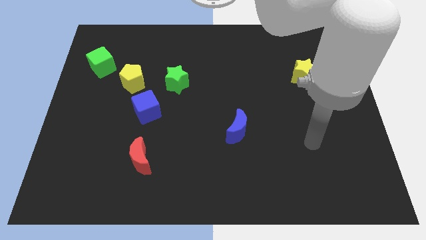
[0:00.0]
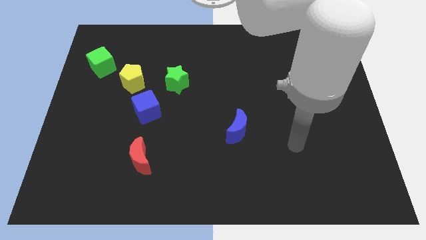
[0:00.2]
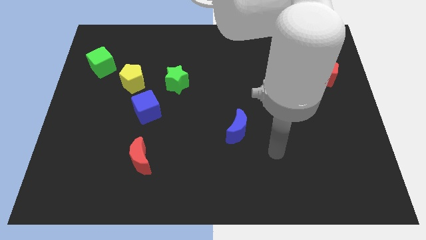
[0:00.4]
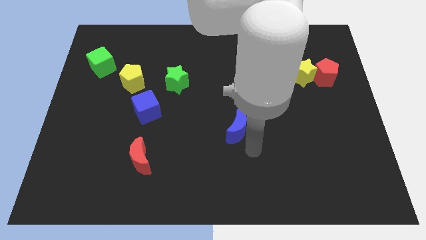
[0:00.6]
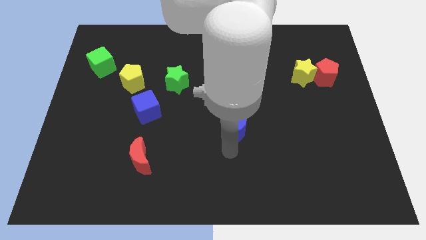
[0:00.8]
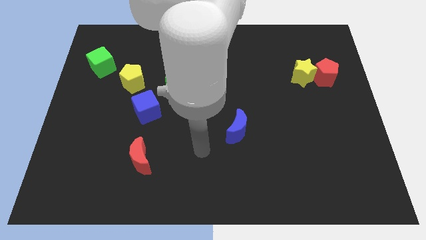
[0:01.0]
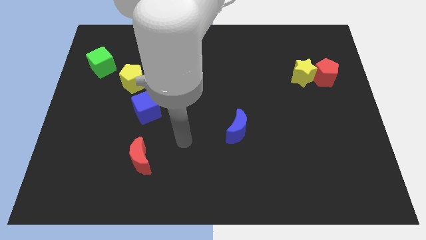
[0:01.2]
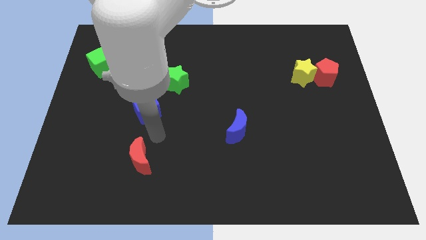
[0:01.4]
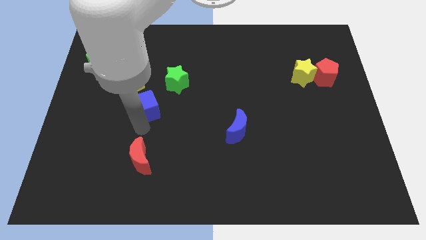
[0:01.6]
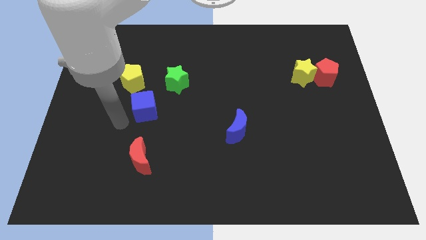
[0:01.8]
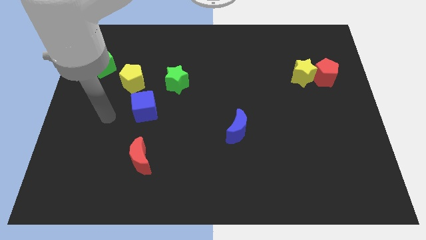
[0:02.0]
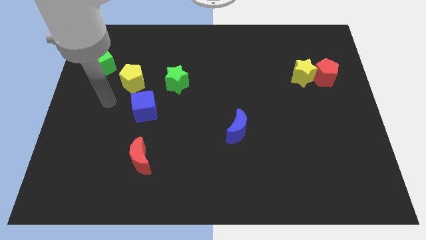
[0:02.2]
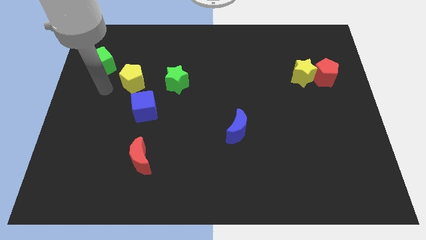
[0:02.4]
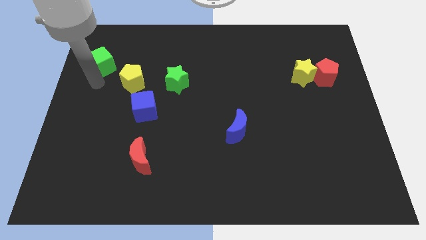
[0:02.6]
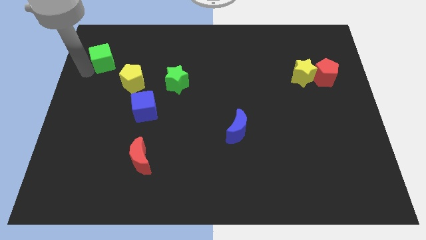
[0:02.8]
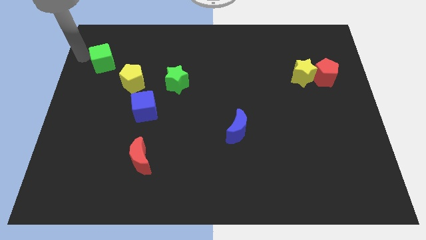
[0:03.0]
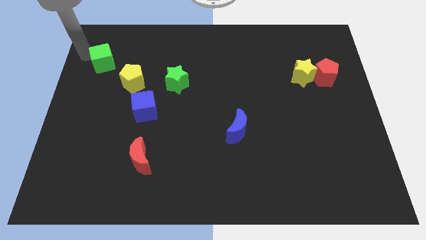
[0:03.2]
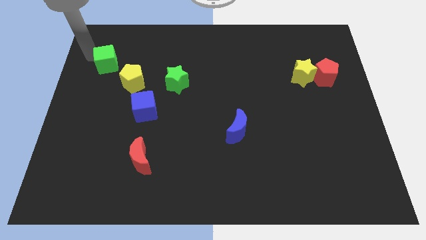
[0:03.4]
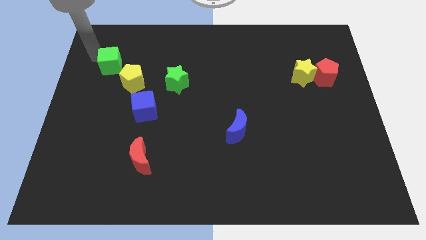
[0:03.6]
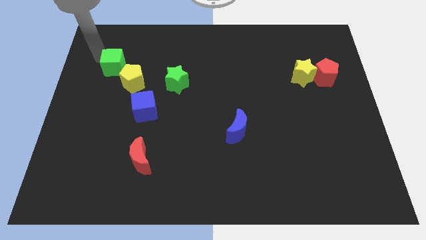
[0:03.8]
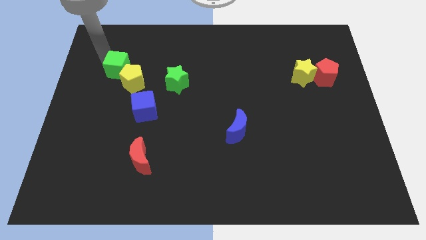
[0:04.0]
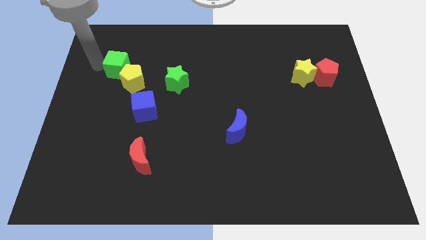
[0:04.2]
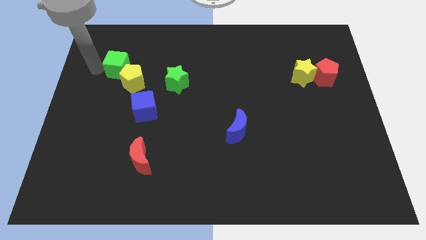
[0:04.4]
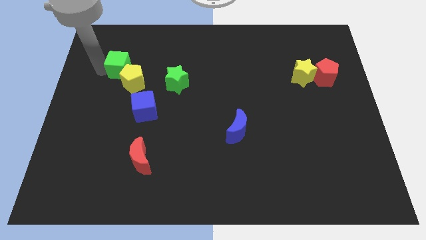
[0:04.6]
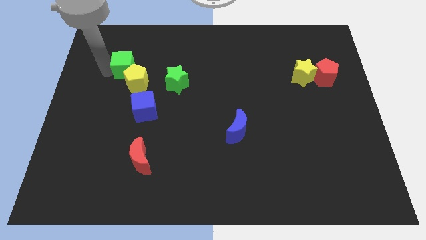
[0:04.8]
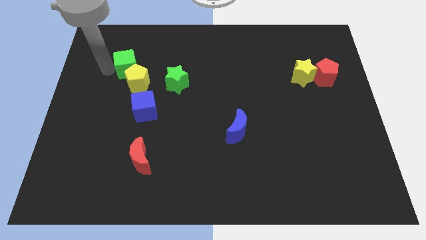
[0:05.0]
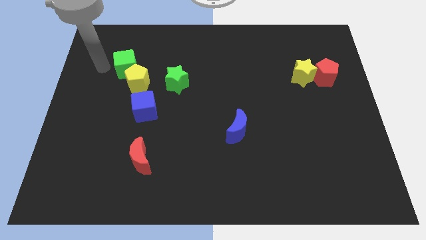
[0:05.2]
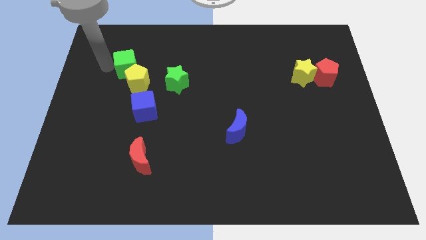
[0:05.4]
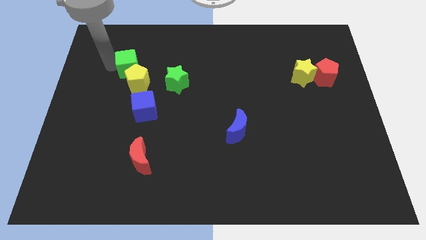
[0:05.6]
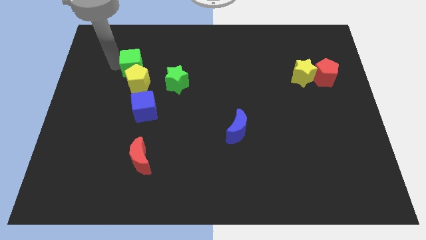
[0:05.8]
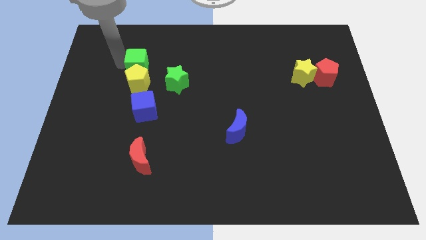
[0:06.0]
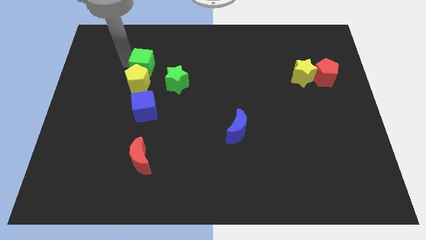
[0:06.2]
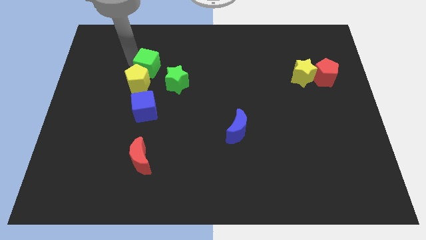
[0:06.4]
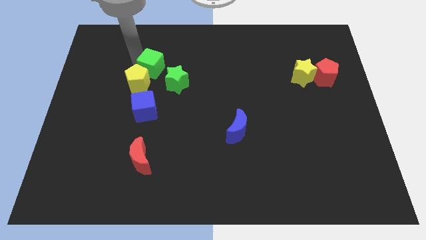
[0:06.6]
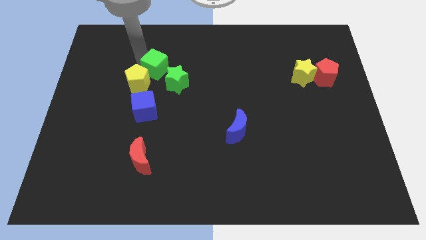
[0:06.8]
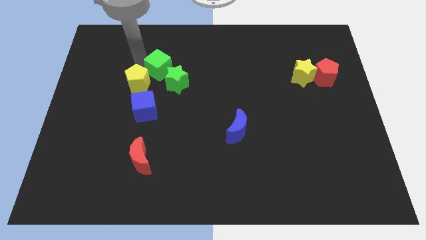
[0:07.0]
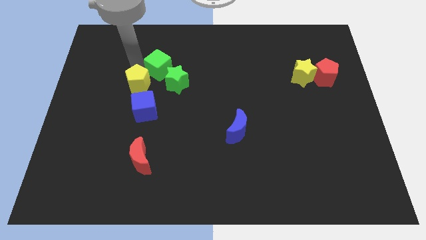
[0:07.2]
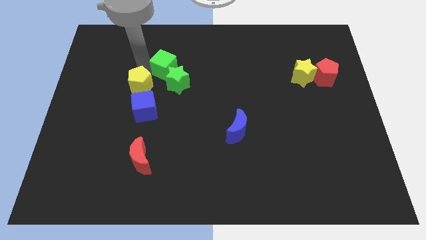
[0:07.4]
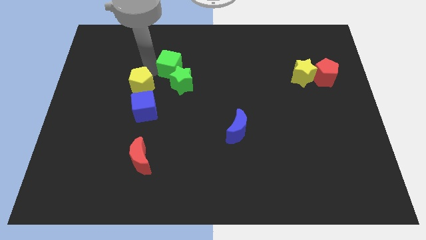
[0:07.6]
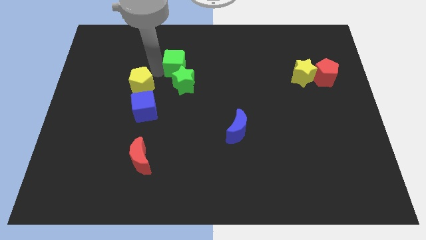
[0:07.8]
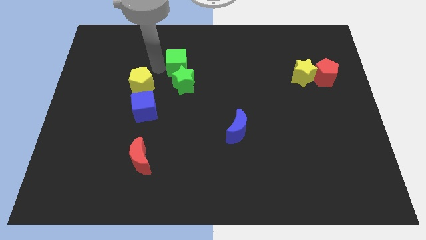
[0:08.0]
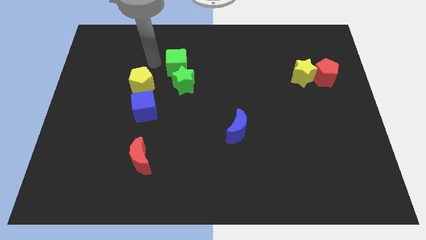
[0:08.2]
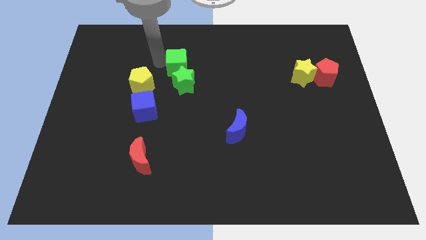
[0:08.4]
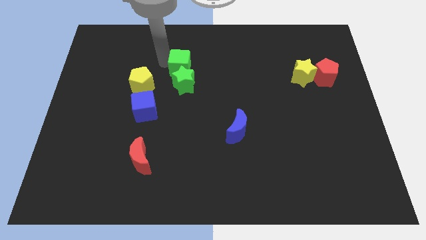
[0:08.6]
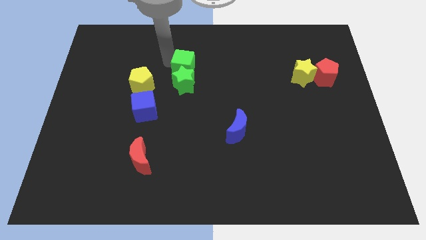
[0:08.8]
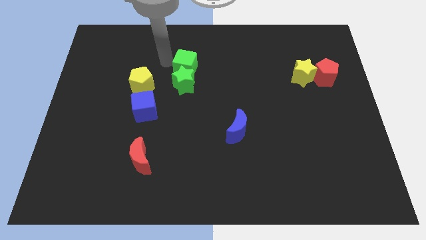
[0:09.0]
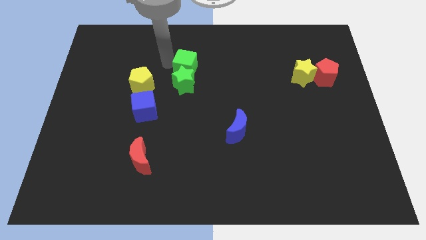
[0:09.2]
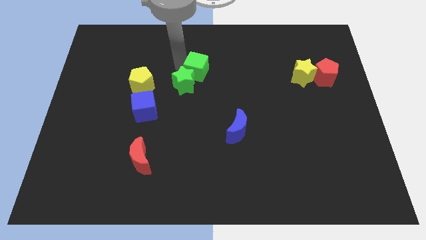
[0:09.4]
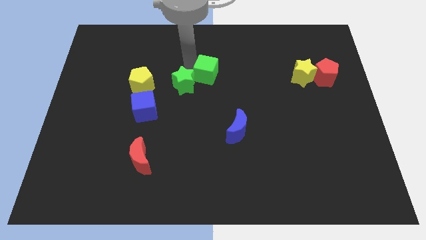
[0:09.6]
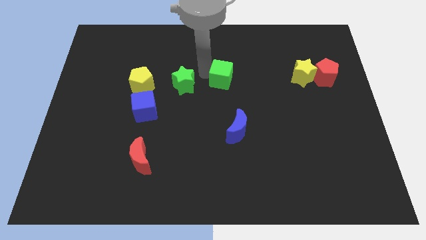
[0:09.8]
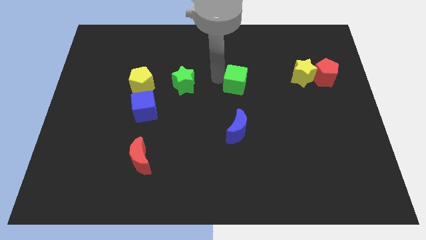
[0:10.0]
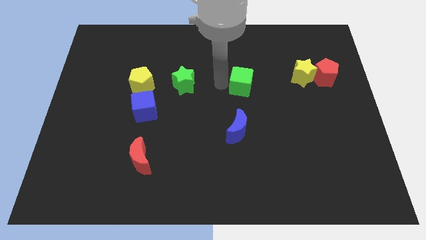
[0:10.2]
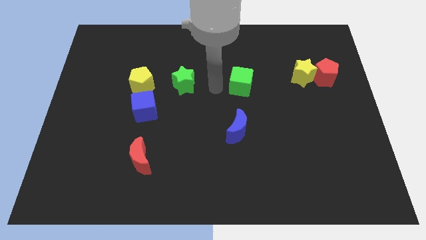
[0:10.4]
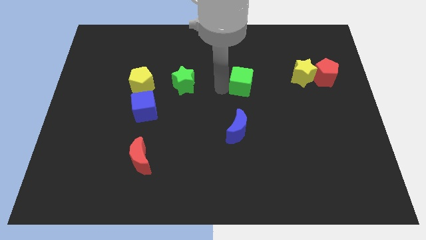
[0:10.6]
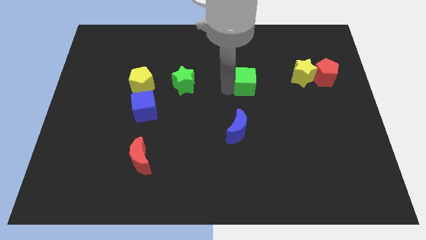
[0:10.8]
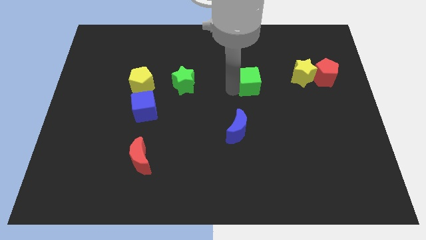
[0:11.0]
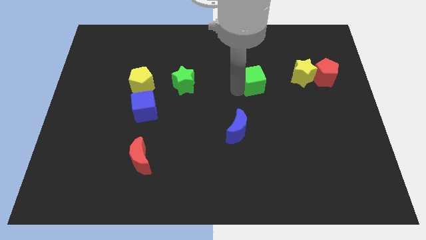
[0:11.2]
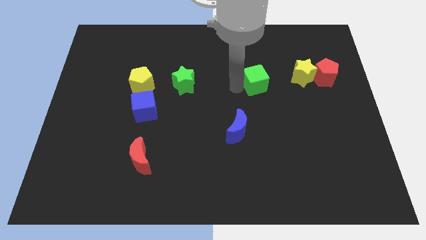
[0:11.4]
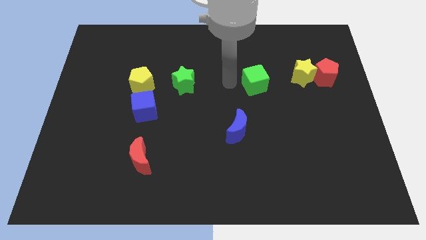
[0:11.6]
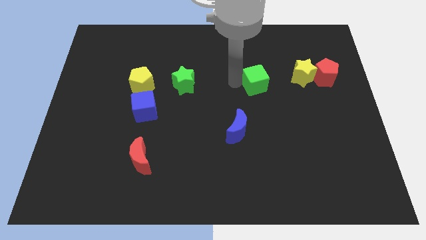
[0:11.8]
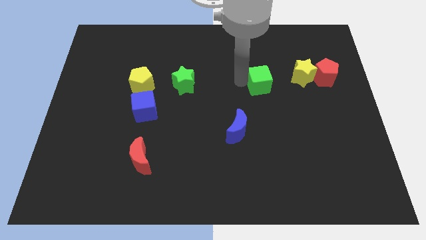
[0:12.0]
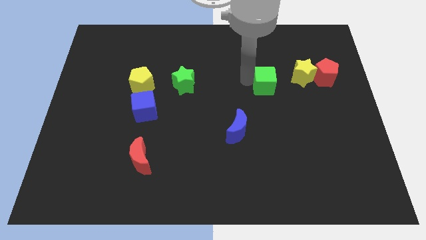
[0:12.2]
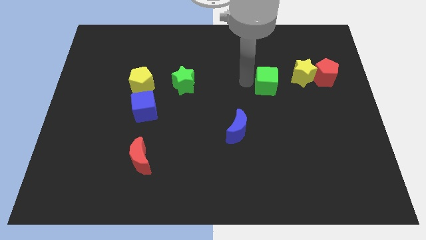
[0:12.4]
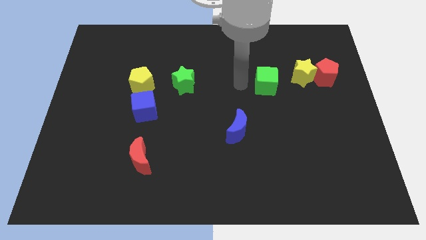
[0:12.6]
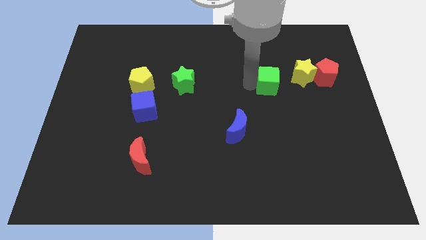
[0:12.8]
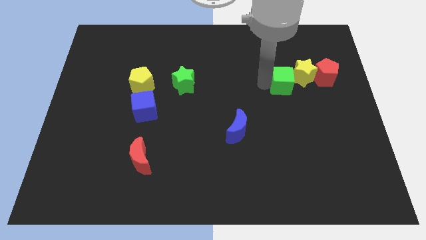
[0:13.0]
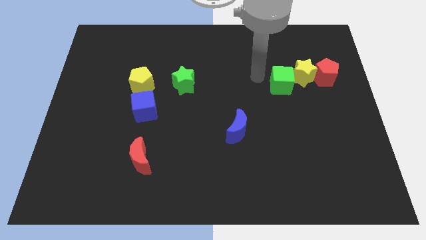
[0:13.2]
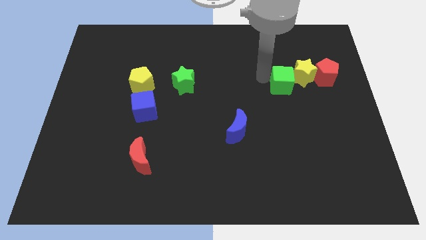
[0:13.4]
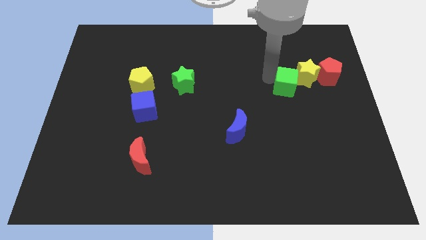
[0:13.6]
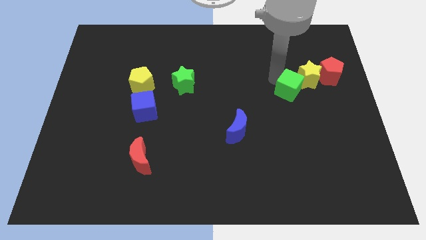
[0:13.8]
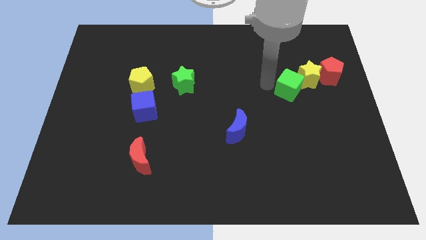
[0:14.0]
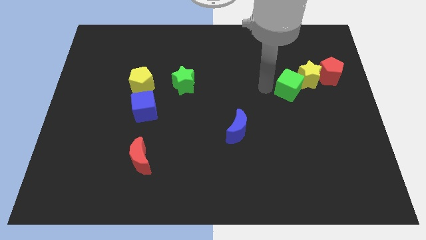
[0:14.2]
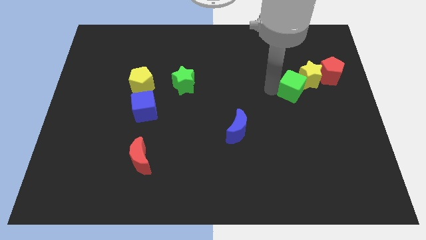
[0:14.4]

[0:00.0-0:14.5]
push the green cube to the bottom left side of the red pentagon
